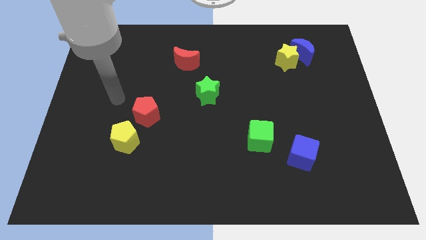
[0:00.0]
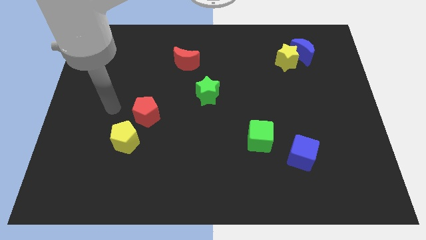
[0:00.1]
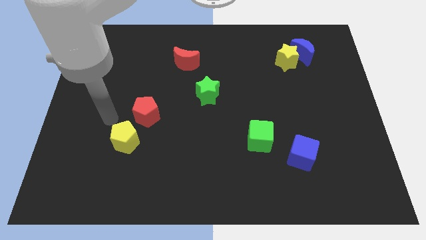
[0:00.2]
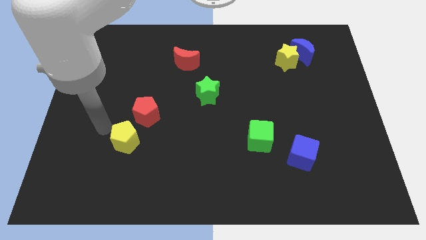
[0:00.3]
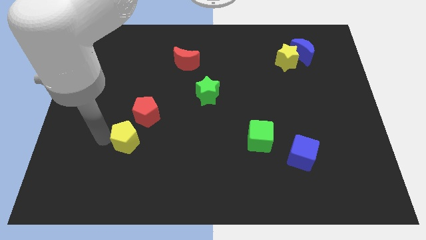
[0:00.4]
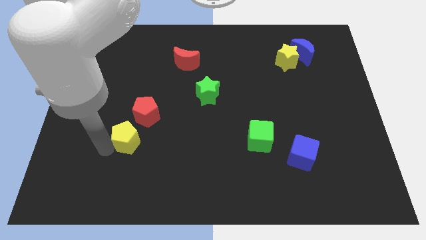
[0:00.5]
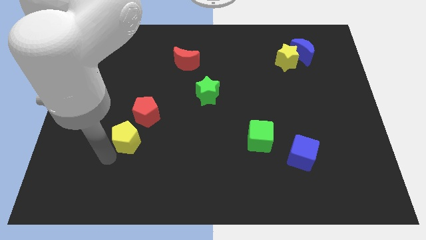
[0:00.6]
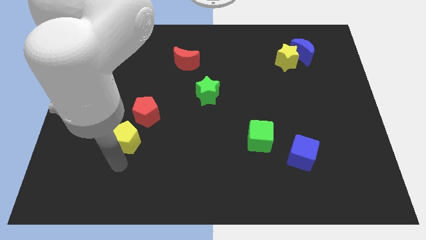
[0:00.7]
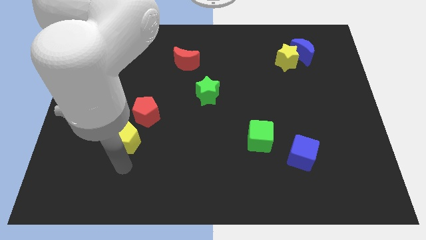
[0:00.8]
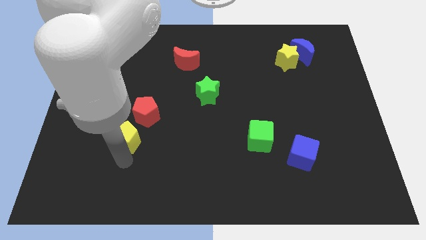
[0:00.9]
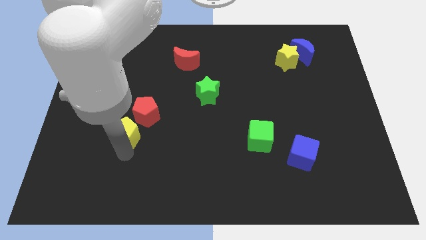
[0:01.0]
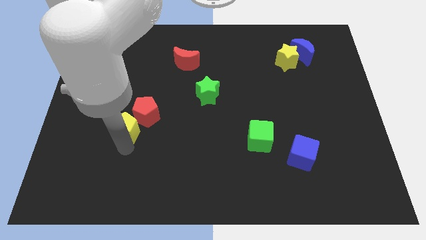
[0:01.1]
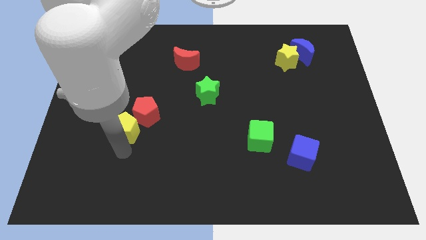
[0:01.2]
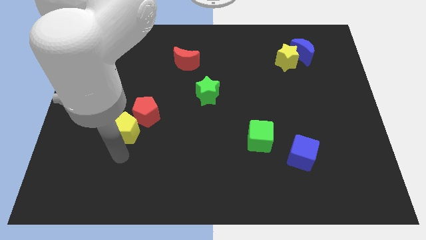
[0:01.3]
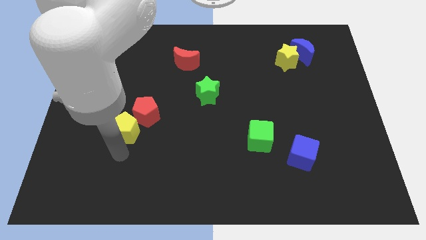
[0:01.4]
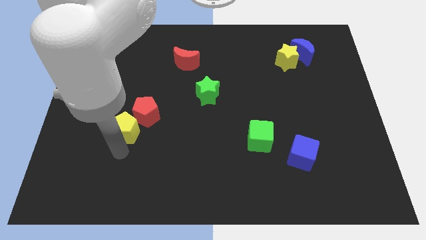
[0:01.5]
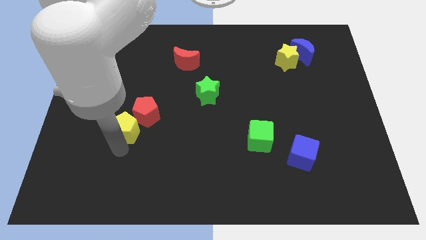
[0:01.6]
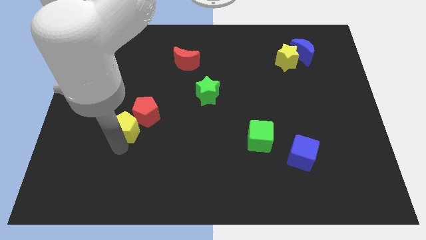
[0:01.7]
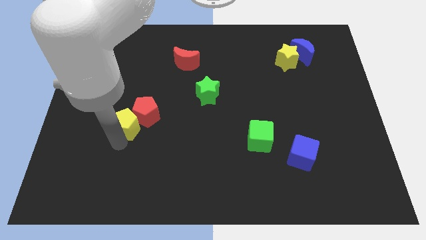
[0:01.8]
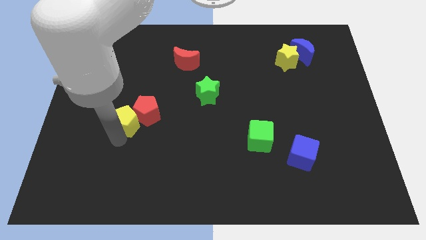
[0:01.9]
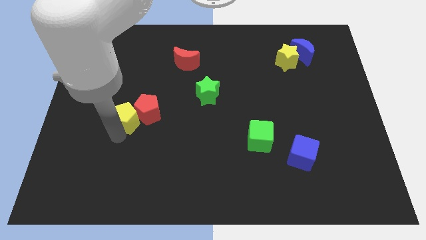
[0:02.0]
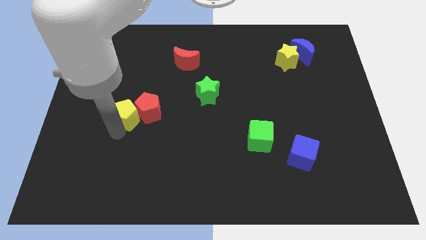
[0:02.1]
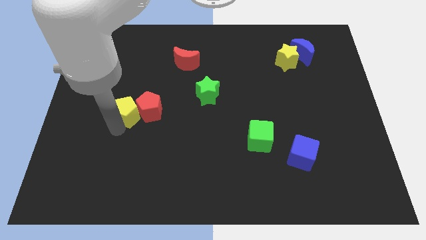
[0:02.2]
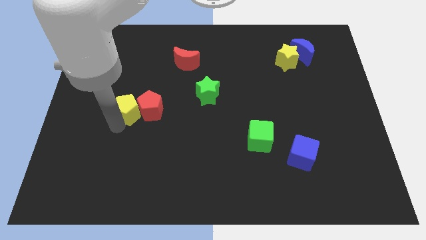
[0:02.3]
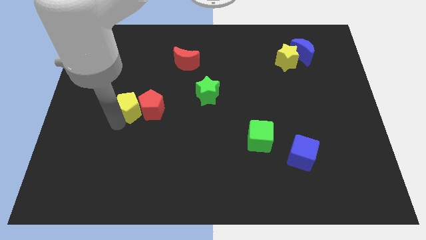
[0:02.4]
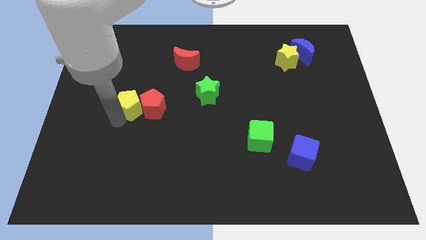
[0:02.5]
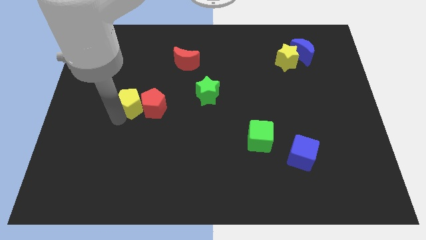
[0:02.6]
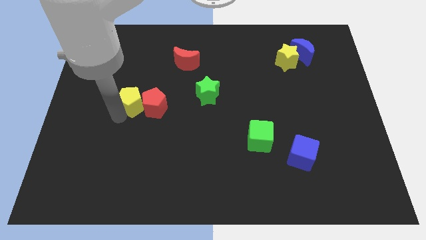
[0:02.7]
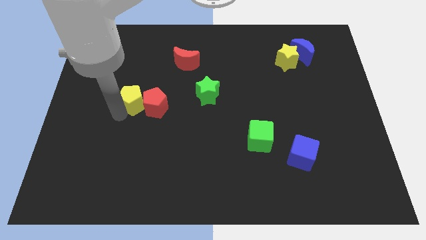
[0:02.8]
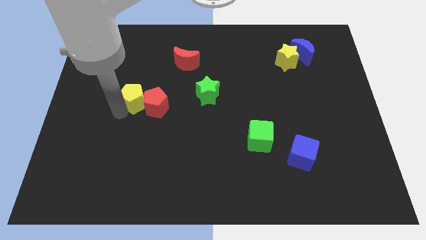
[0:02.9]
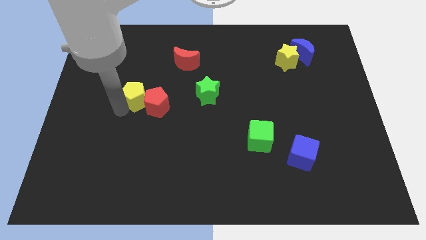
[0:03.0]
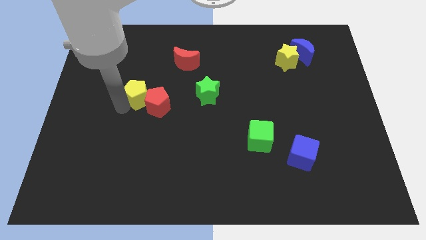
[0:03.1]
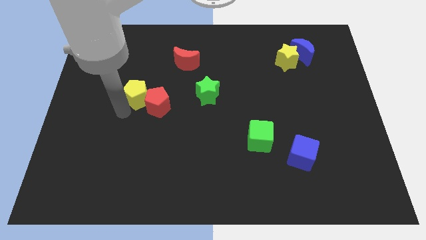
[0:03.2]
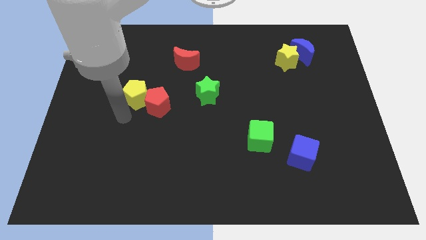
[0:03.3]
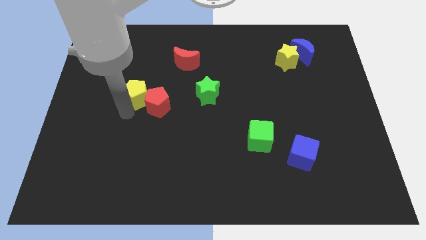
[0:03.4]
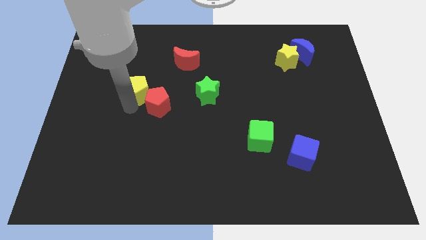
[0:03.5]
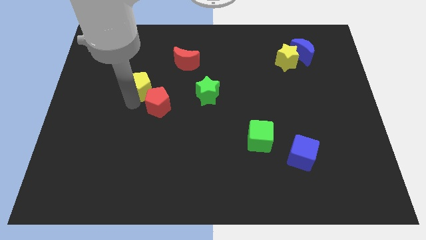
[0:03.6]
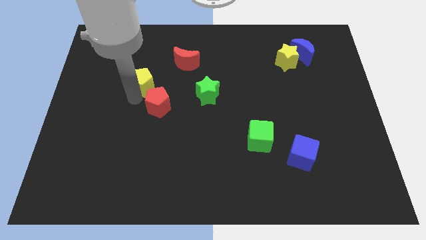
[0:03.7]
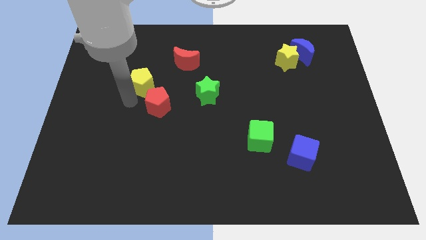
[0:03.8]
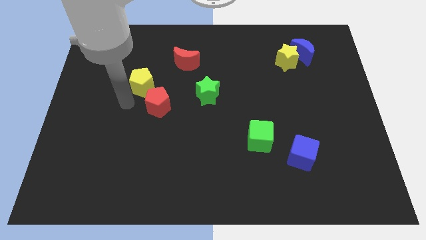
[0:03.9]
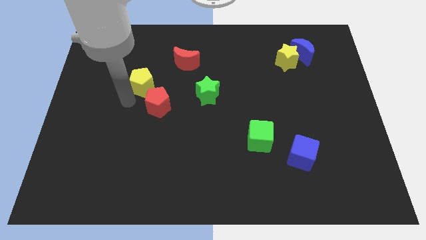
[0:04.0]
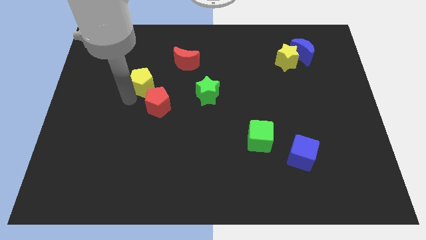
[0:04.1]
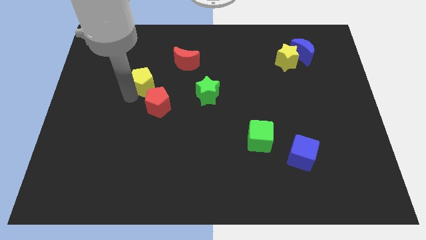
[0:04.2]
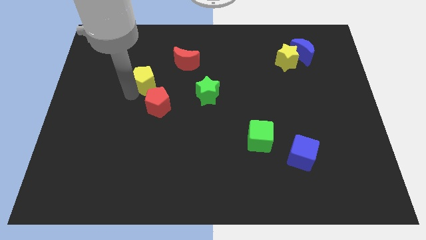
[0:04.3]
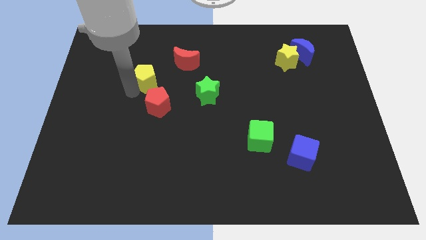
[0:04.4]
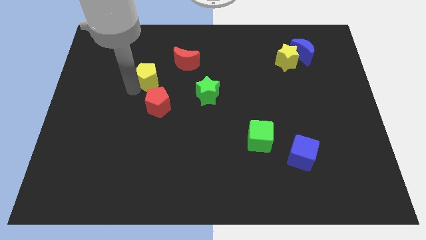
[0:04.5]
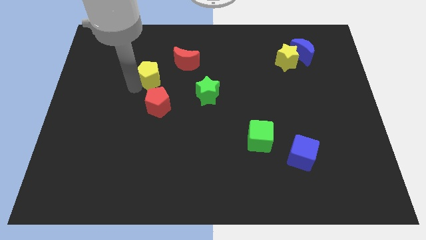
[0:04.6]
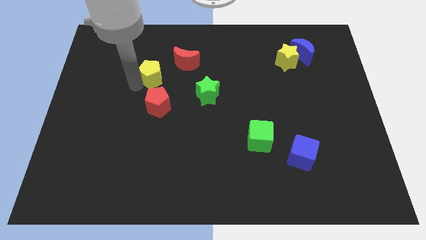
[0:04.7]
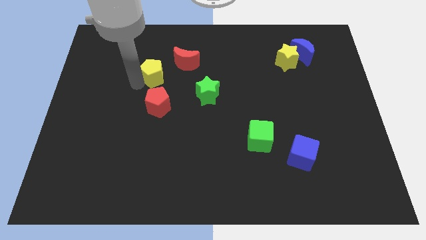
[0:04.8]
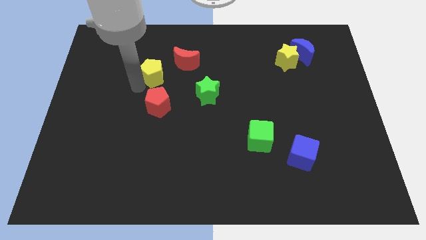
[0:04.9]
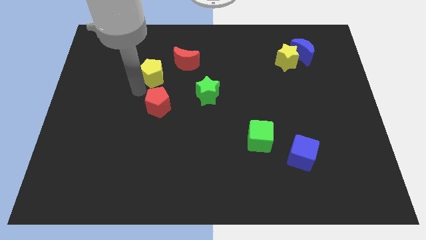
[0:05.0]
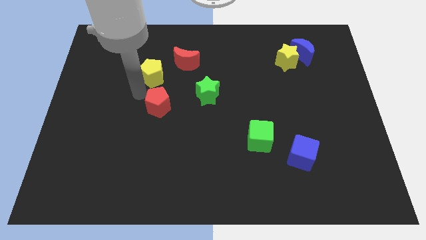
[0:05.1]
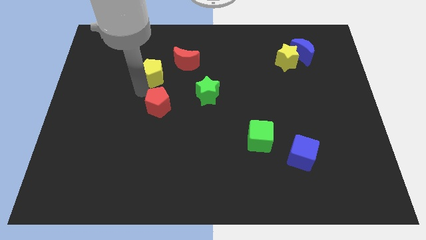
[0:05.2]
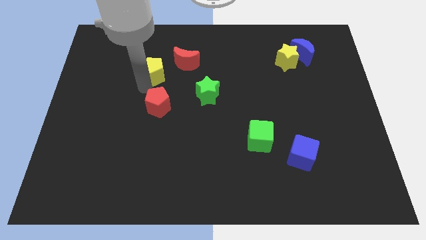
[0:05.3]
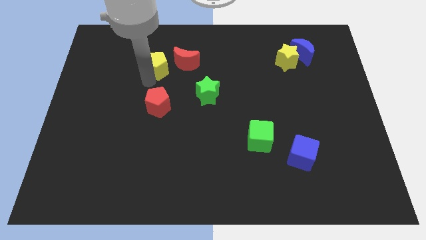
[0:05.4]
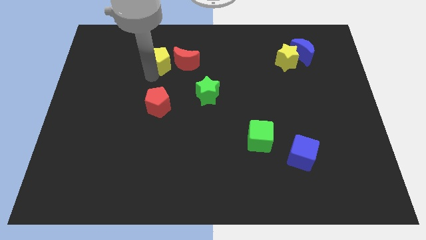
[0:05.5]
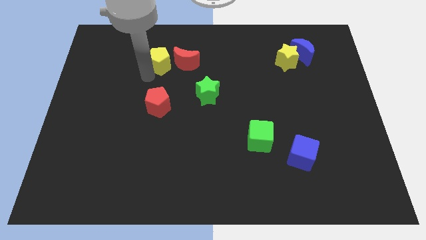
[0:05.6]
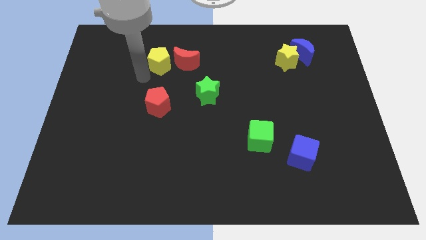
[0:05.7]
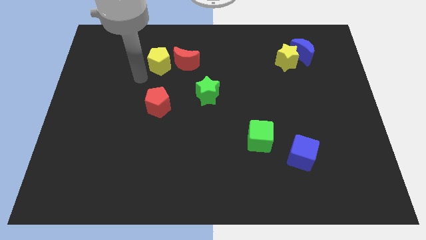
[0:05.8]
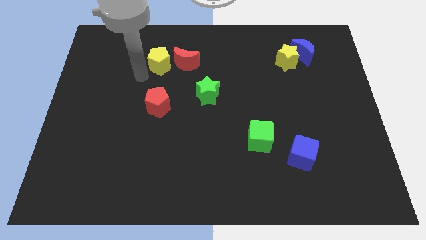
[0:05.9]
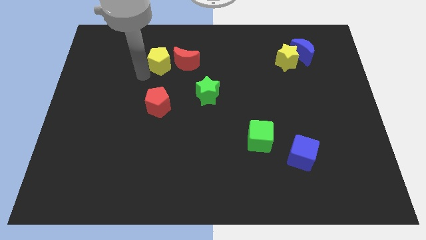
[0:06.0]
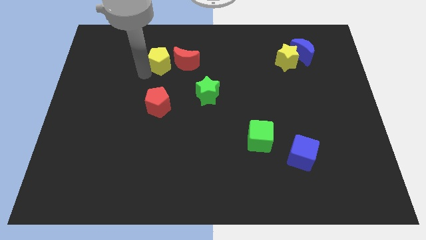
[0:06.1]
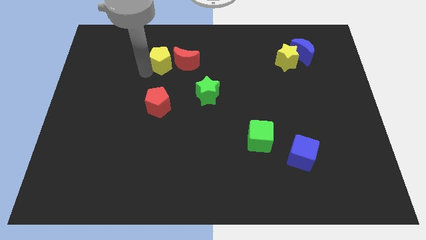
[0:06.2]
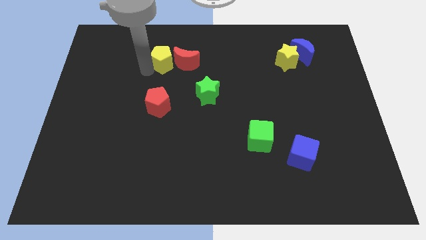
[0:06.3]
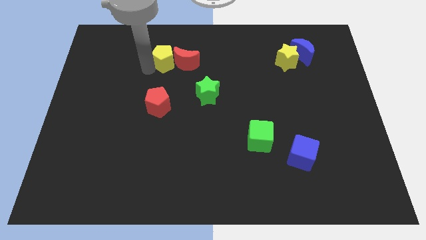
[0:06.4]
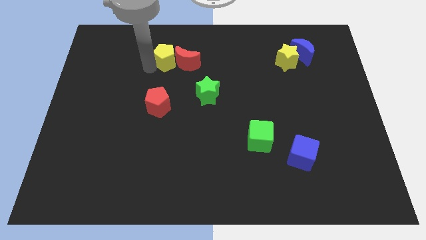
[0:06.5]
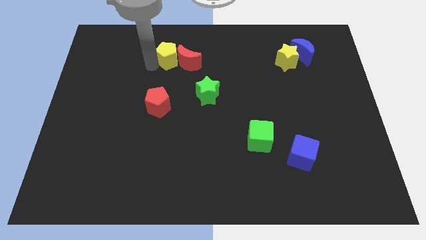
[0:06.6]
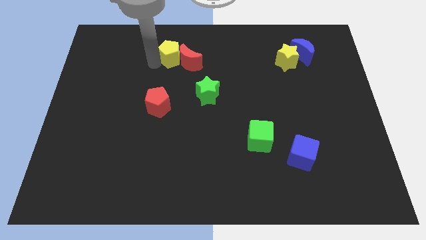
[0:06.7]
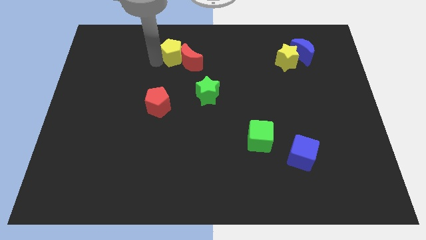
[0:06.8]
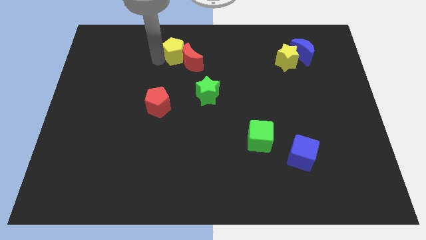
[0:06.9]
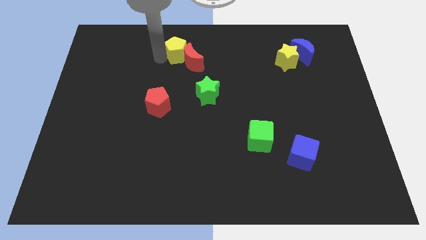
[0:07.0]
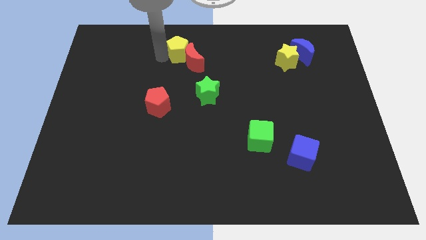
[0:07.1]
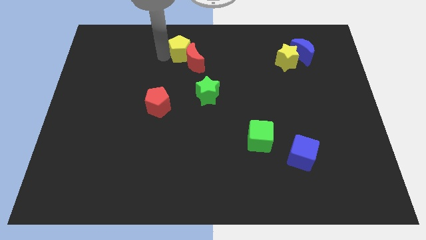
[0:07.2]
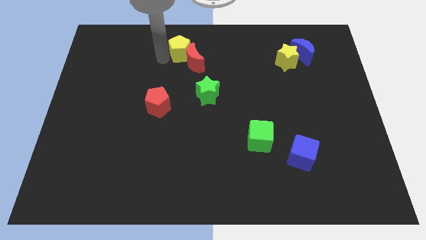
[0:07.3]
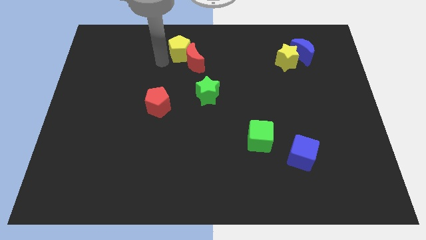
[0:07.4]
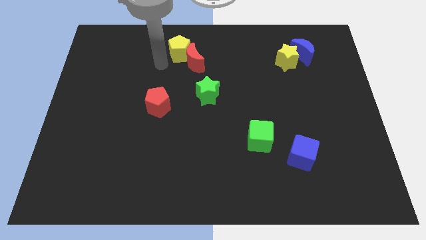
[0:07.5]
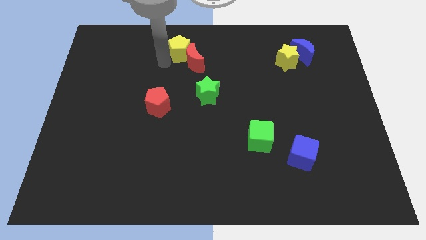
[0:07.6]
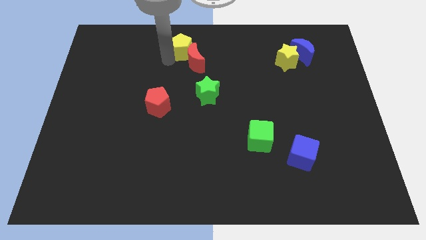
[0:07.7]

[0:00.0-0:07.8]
put the yellow pentagon to the top side
